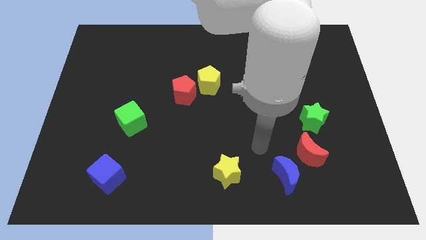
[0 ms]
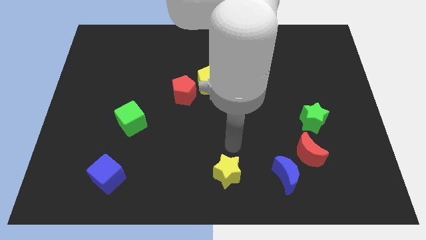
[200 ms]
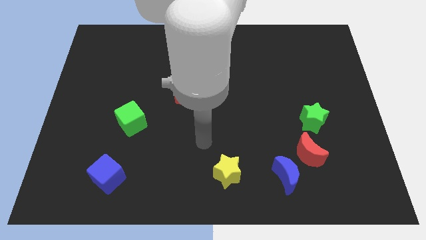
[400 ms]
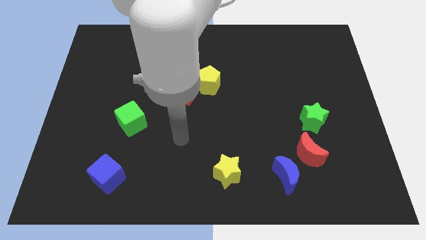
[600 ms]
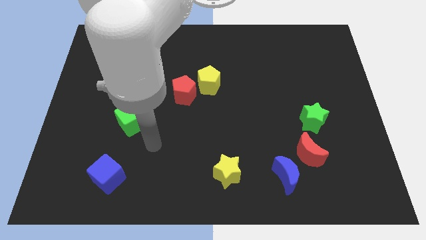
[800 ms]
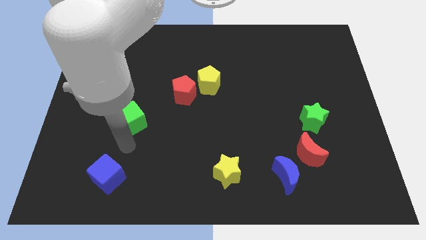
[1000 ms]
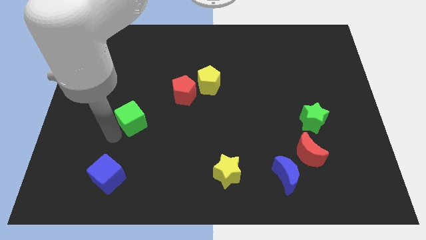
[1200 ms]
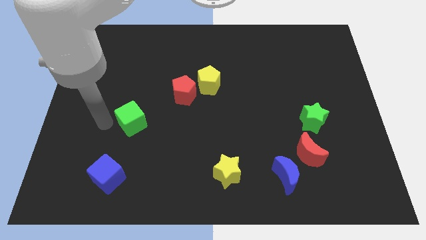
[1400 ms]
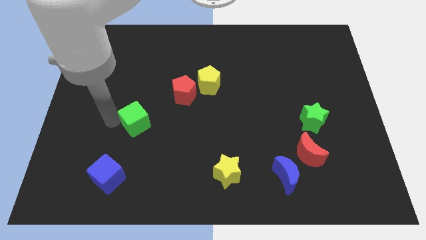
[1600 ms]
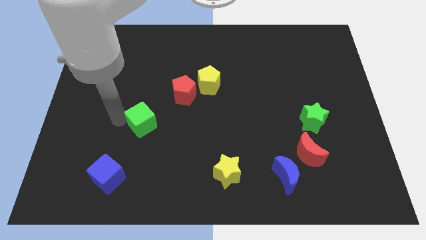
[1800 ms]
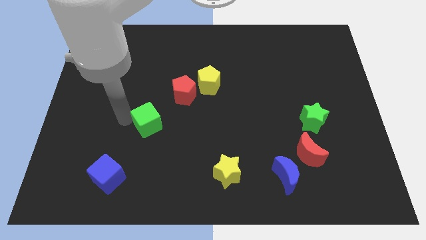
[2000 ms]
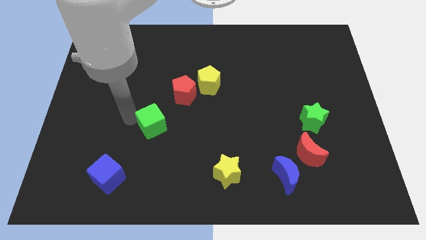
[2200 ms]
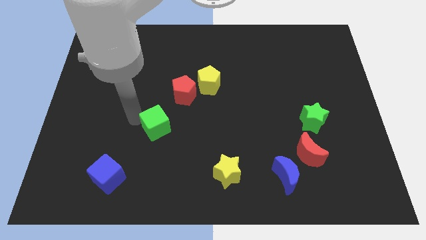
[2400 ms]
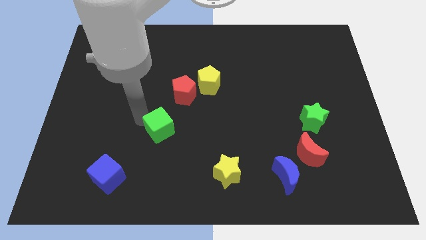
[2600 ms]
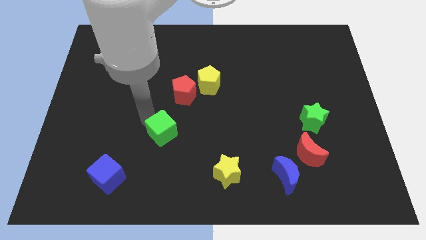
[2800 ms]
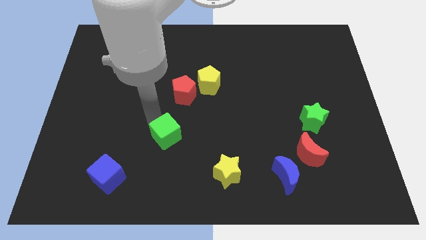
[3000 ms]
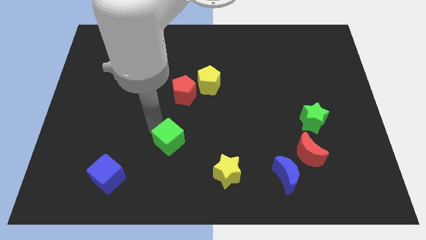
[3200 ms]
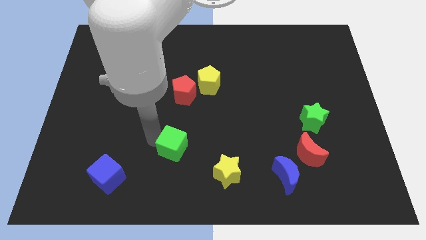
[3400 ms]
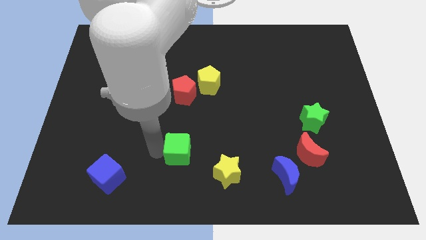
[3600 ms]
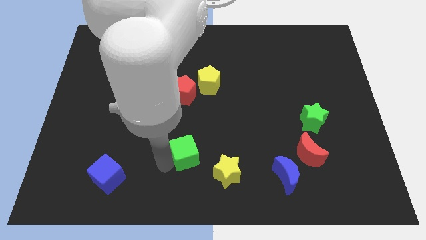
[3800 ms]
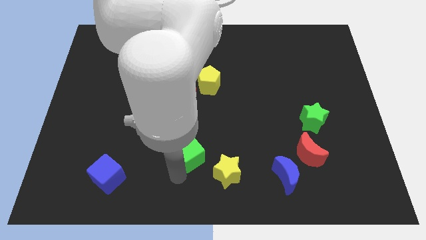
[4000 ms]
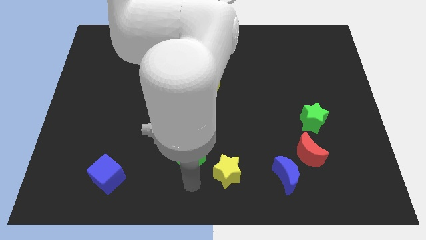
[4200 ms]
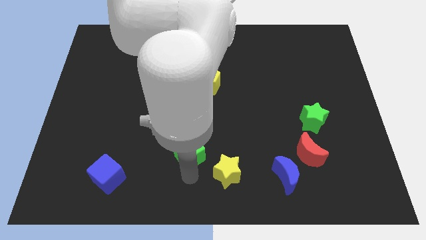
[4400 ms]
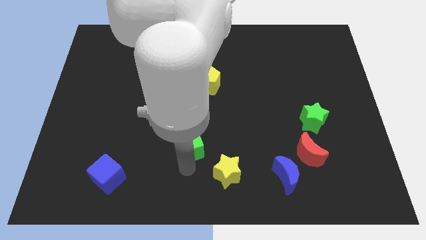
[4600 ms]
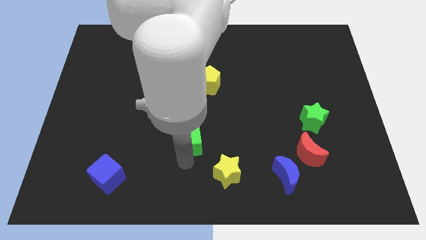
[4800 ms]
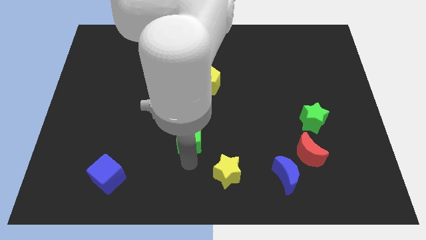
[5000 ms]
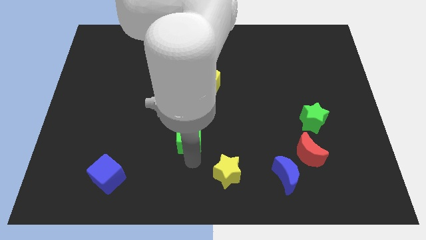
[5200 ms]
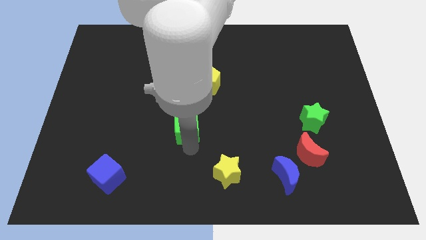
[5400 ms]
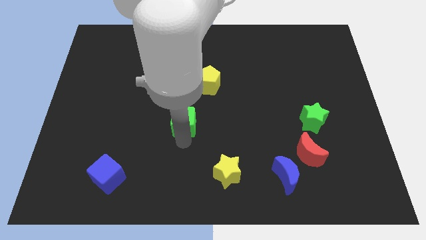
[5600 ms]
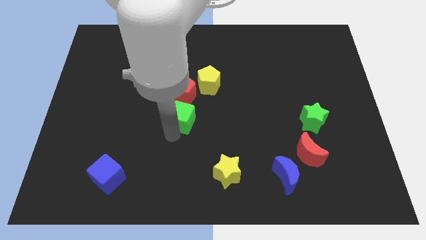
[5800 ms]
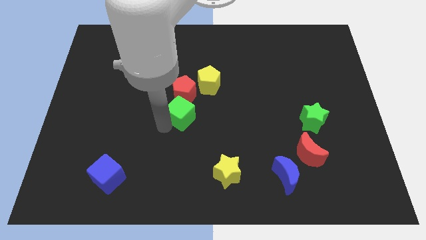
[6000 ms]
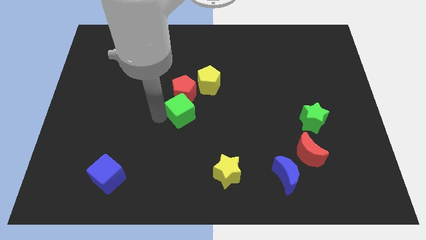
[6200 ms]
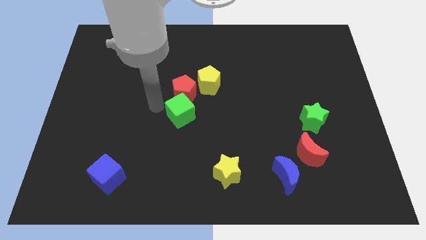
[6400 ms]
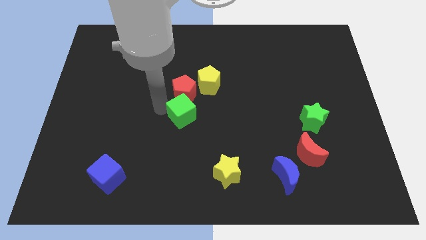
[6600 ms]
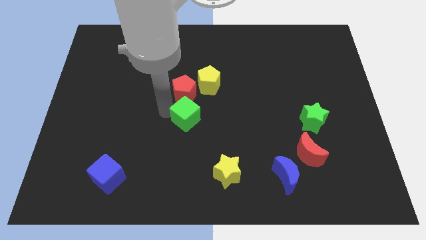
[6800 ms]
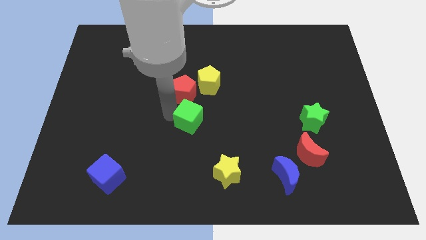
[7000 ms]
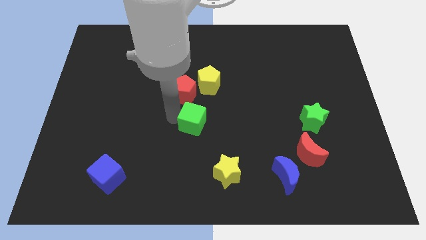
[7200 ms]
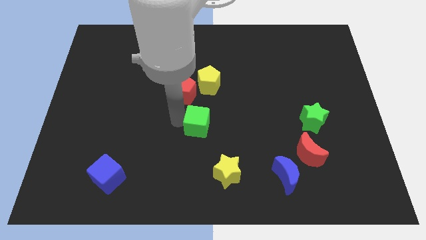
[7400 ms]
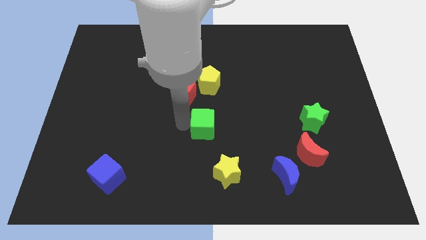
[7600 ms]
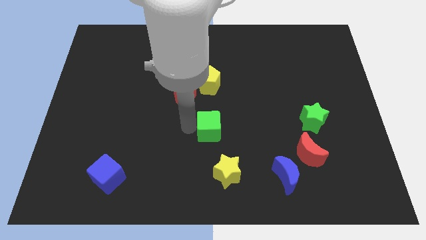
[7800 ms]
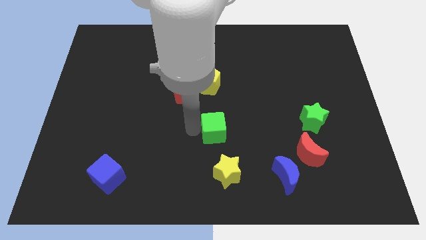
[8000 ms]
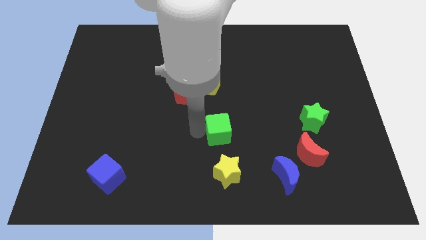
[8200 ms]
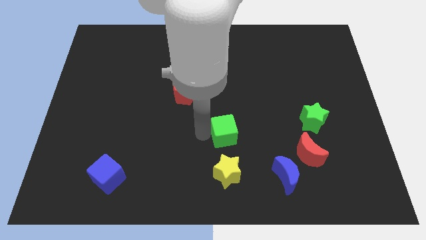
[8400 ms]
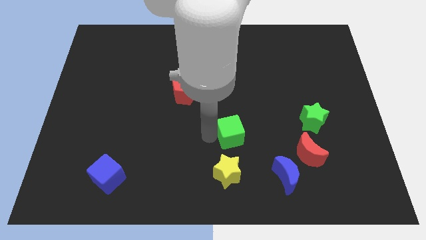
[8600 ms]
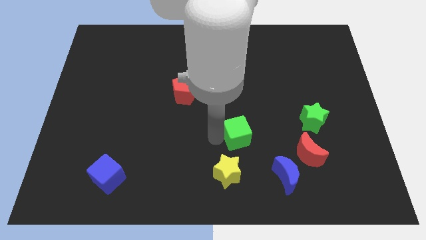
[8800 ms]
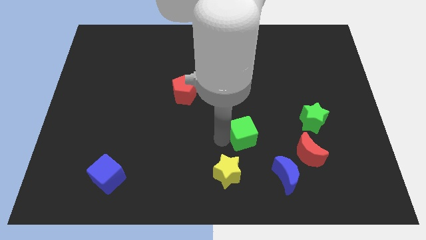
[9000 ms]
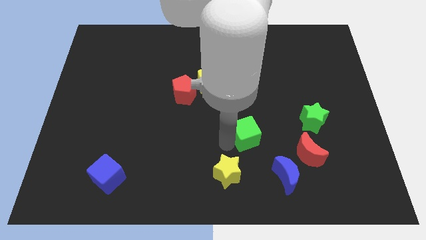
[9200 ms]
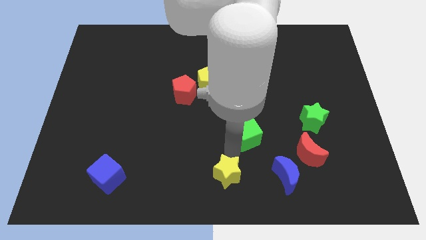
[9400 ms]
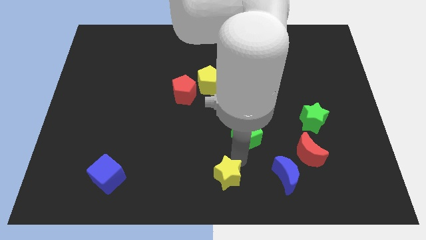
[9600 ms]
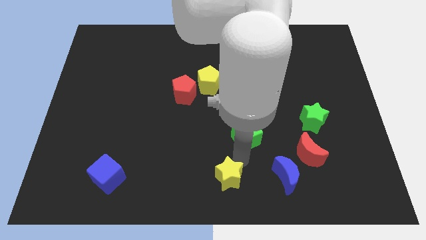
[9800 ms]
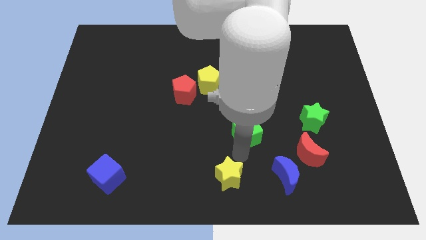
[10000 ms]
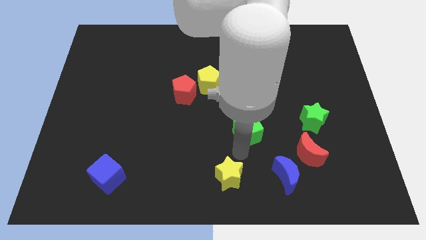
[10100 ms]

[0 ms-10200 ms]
put the green cube just left of the green star

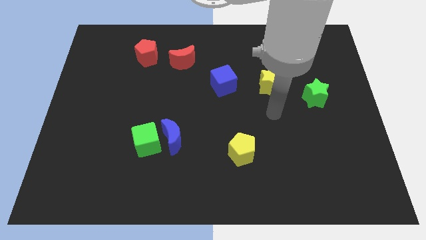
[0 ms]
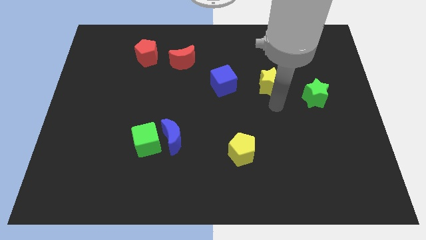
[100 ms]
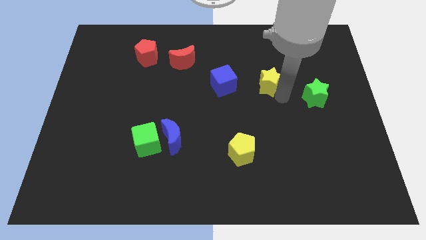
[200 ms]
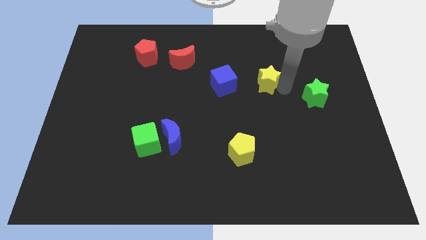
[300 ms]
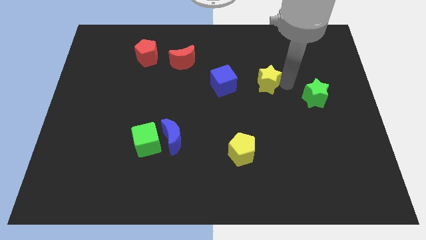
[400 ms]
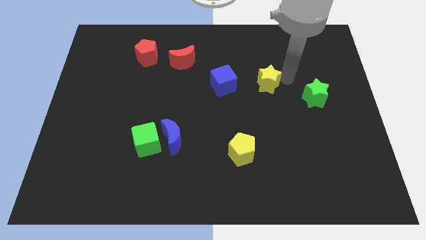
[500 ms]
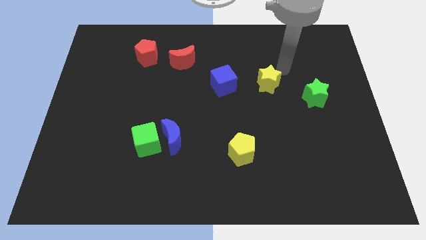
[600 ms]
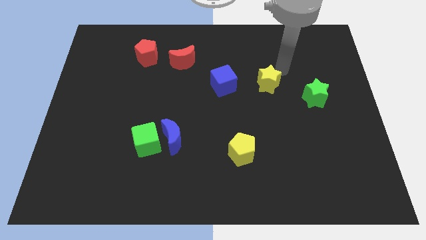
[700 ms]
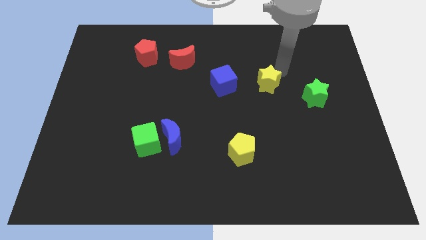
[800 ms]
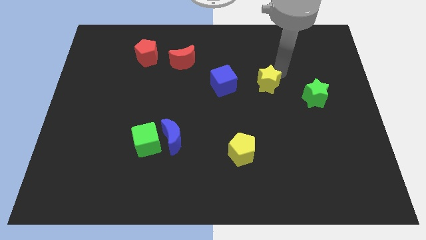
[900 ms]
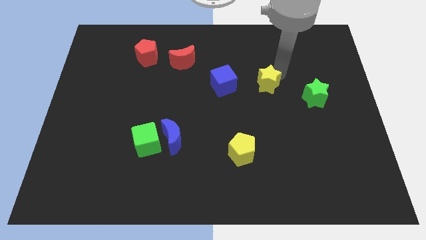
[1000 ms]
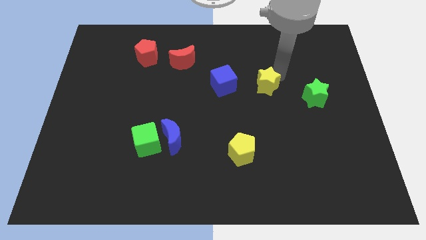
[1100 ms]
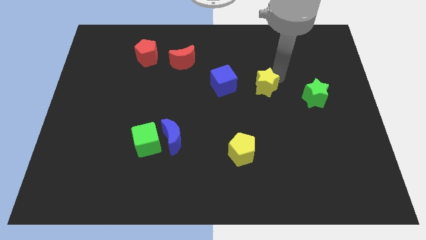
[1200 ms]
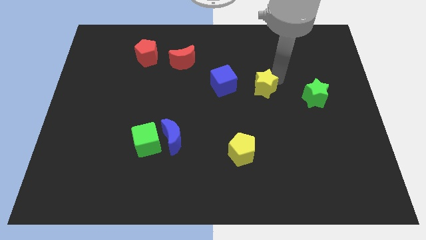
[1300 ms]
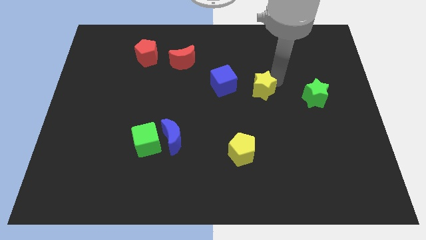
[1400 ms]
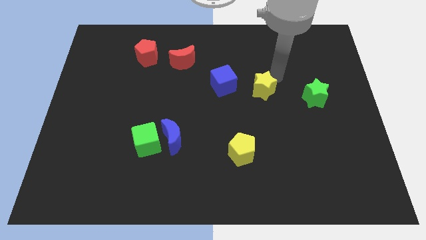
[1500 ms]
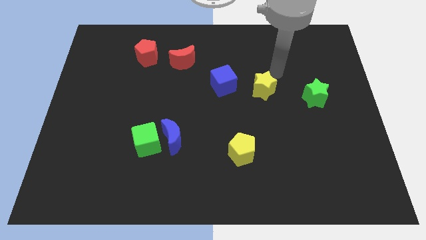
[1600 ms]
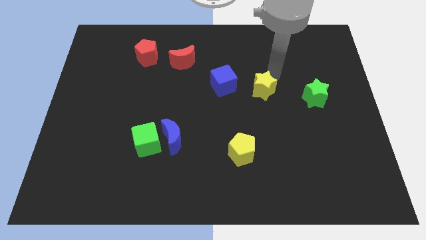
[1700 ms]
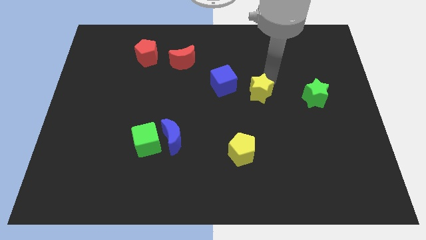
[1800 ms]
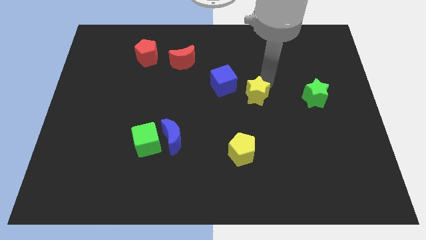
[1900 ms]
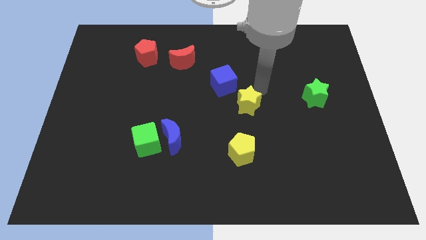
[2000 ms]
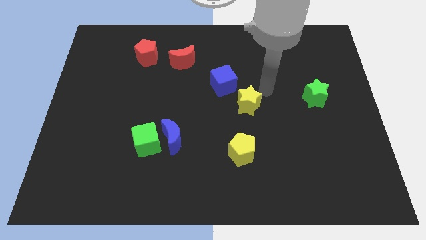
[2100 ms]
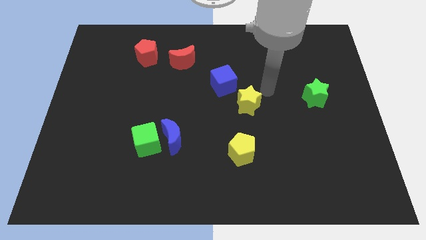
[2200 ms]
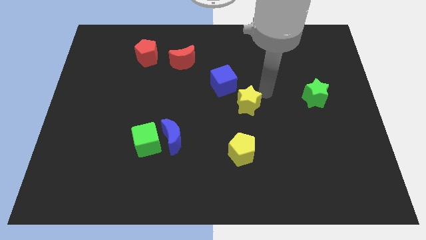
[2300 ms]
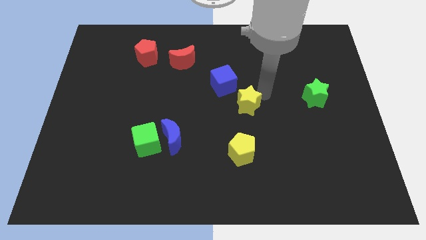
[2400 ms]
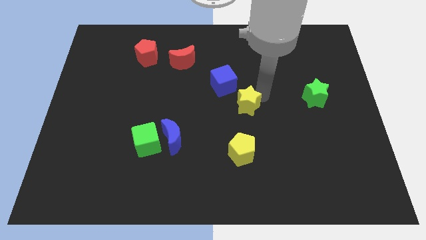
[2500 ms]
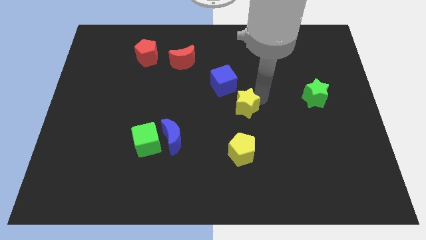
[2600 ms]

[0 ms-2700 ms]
push the yellow star to the bottom side of the blue cube
